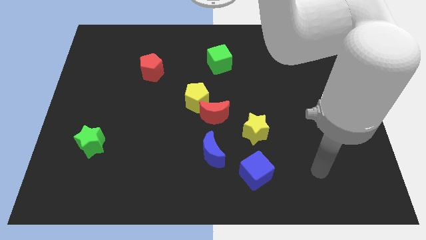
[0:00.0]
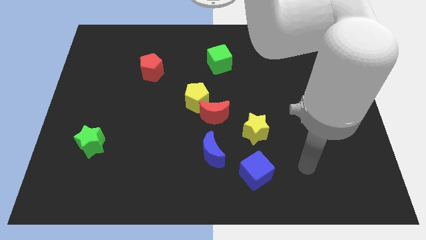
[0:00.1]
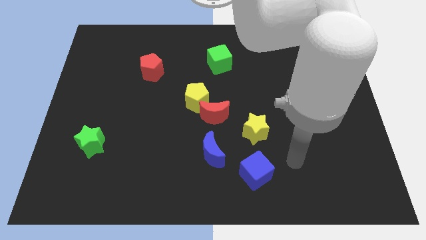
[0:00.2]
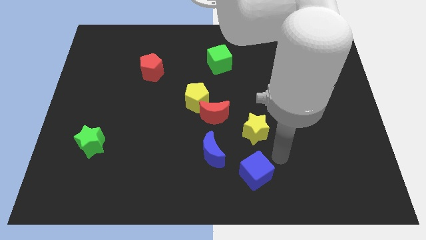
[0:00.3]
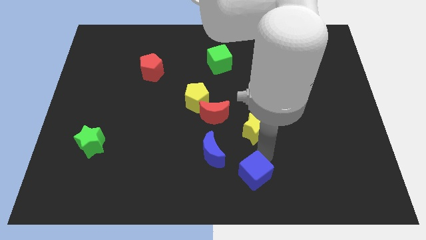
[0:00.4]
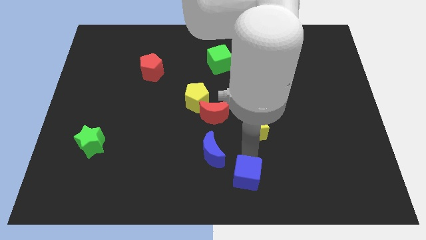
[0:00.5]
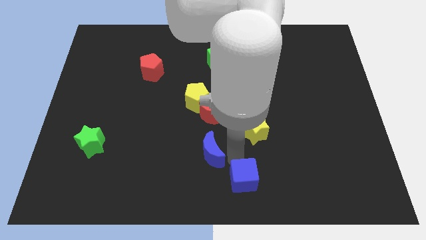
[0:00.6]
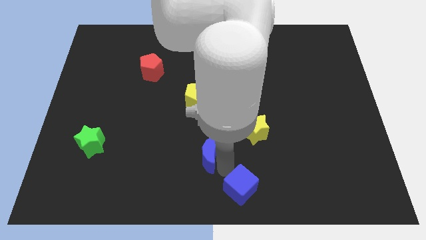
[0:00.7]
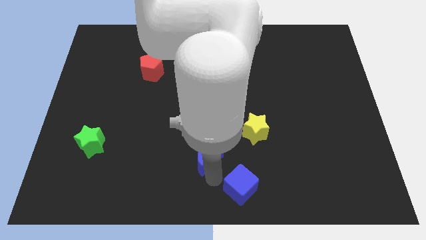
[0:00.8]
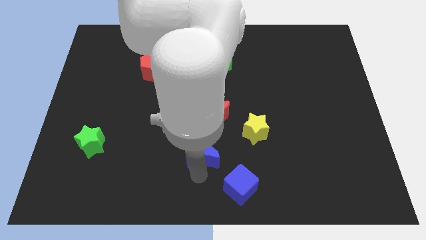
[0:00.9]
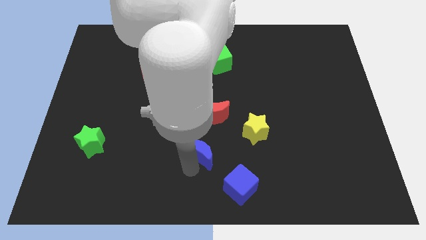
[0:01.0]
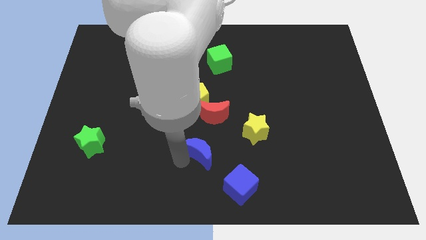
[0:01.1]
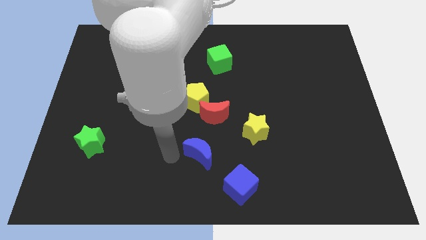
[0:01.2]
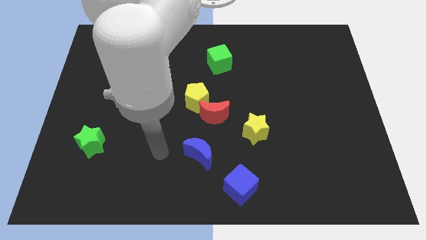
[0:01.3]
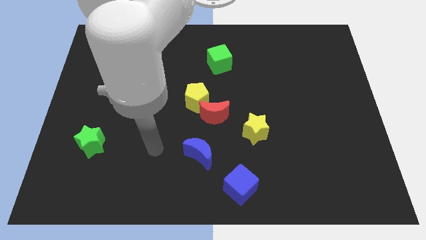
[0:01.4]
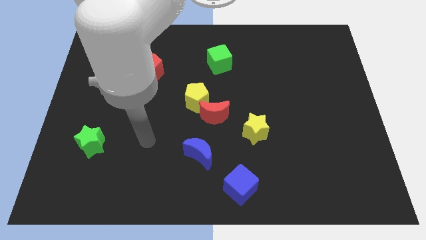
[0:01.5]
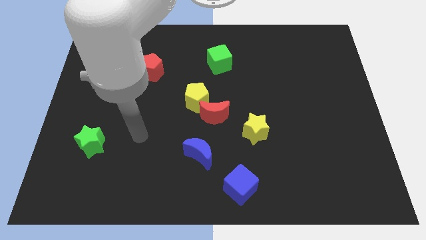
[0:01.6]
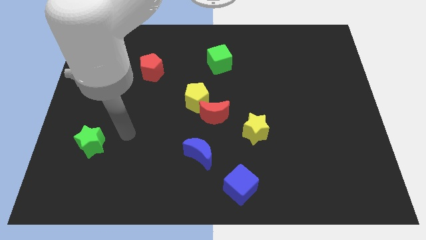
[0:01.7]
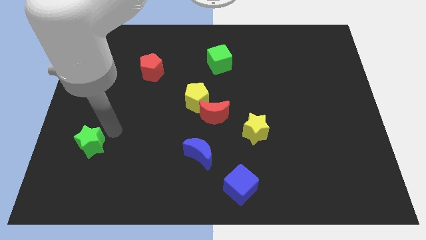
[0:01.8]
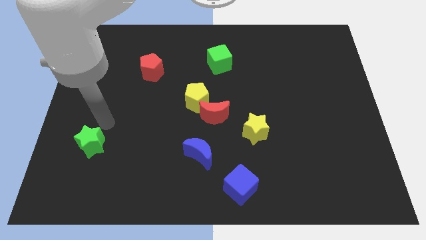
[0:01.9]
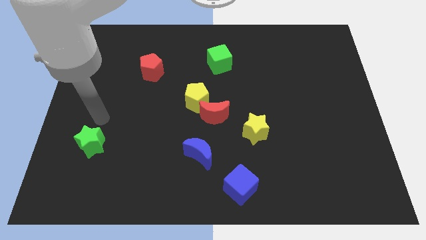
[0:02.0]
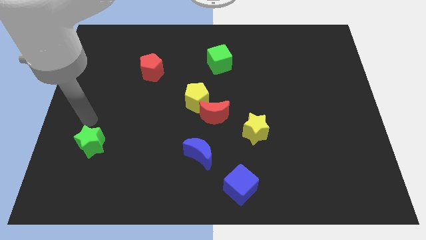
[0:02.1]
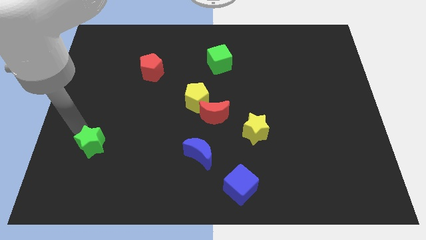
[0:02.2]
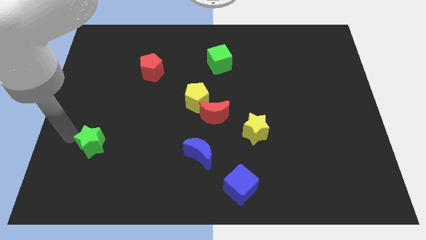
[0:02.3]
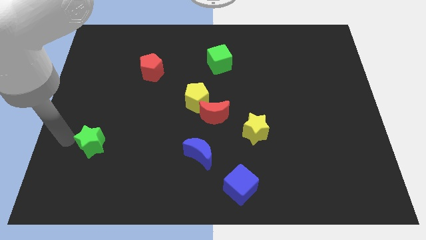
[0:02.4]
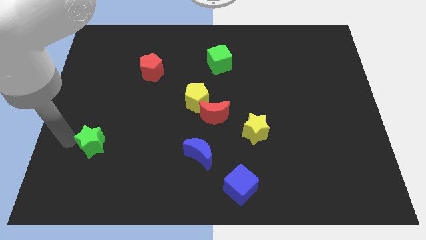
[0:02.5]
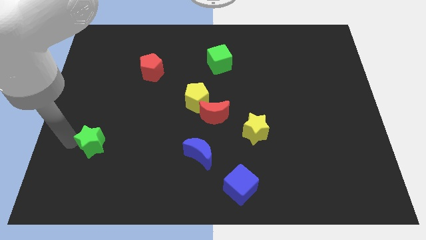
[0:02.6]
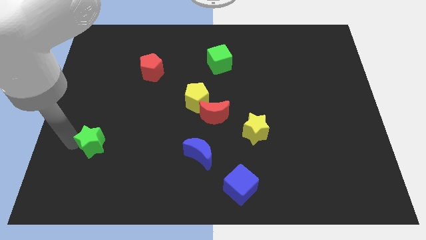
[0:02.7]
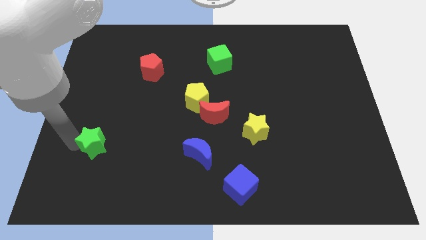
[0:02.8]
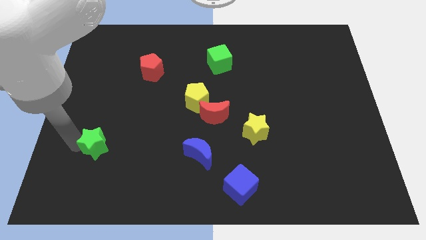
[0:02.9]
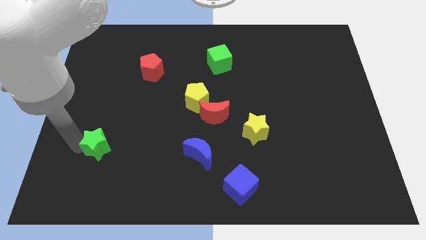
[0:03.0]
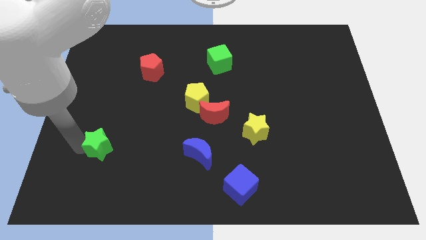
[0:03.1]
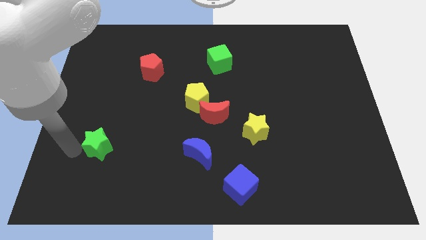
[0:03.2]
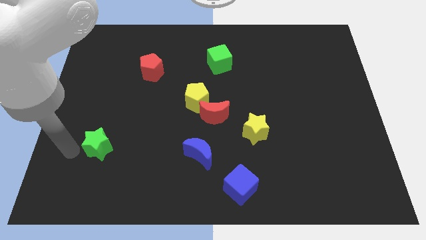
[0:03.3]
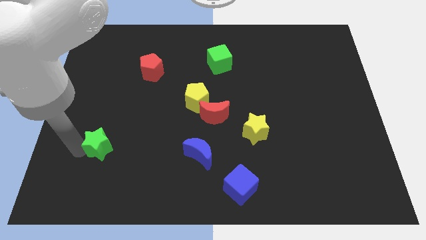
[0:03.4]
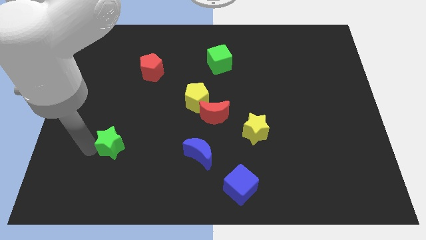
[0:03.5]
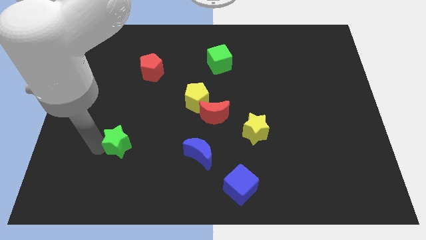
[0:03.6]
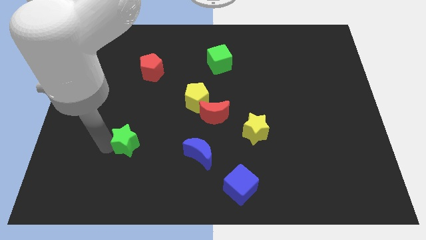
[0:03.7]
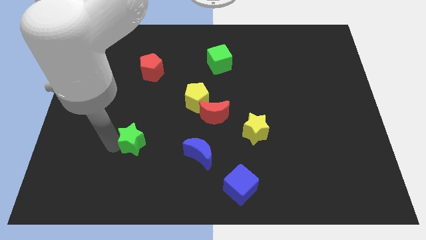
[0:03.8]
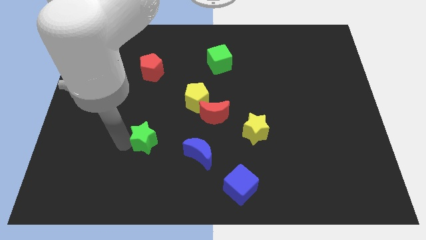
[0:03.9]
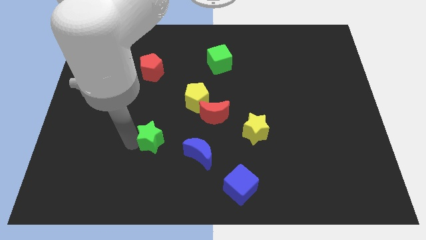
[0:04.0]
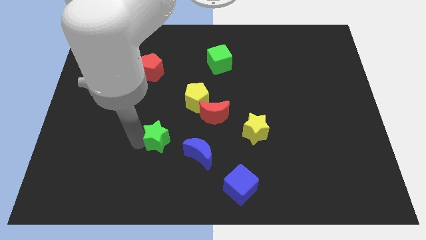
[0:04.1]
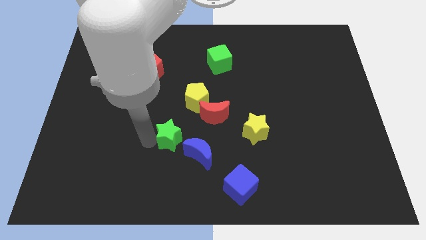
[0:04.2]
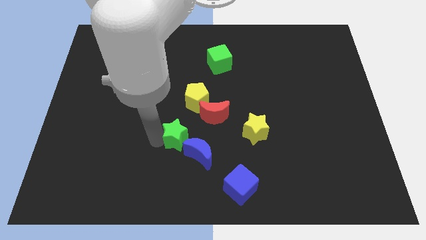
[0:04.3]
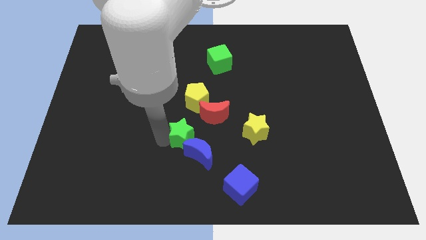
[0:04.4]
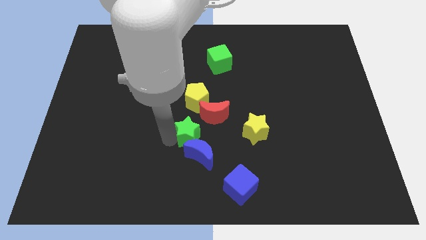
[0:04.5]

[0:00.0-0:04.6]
slide the green star to the right

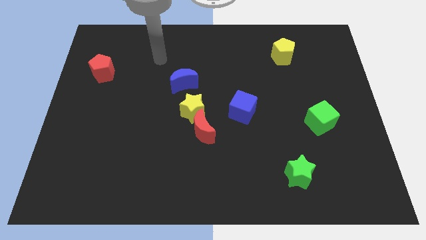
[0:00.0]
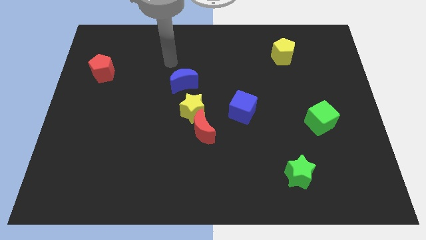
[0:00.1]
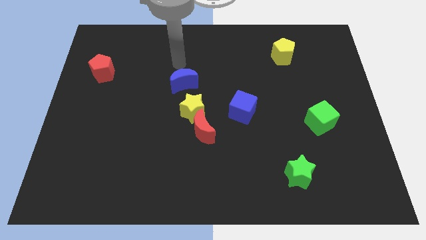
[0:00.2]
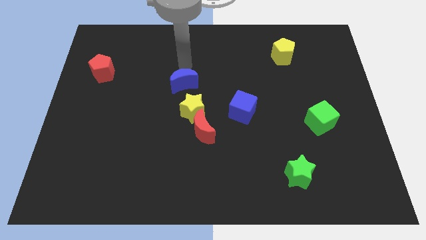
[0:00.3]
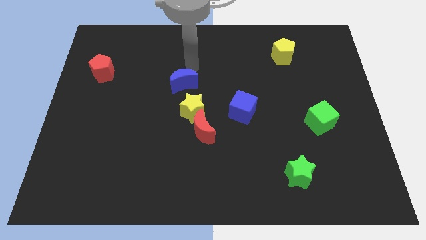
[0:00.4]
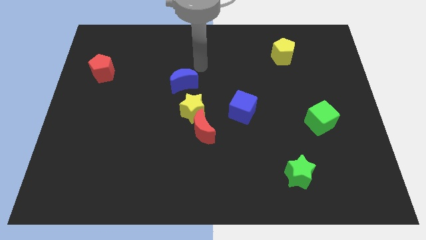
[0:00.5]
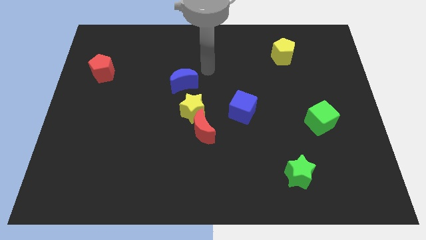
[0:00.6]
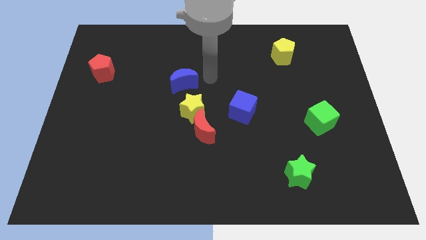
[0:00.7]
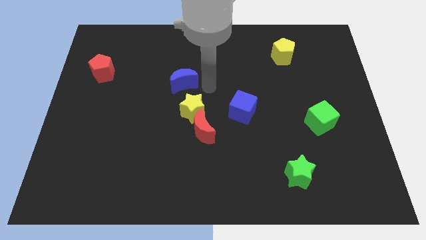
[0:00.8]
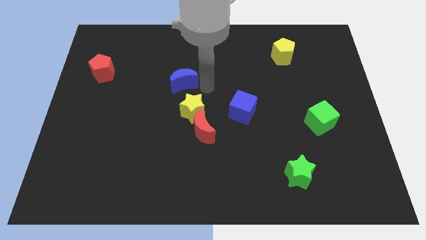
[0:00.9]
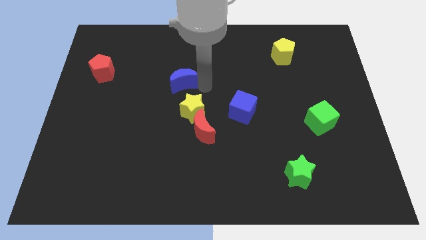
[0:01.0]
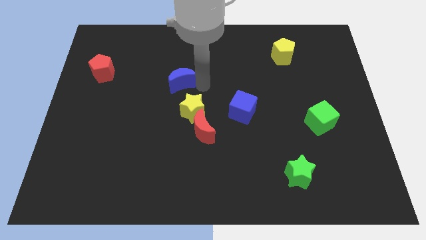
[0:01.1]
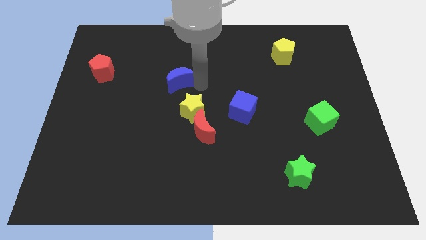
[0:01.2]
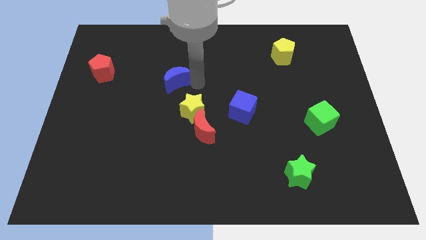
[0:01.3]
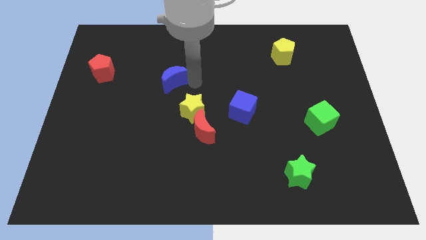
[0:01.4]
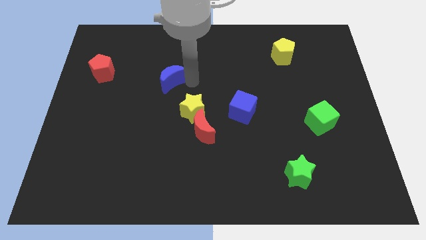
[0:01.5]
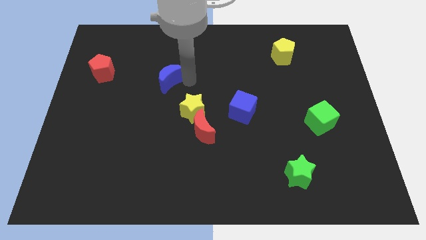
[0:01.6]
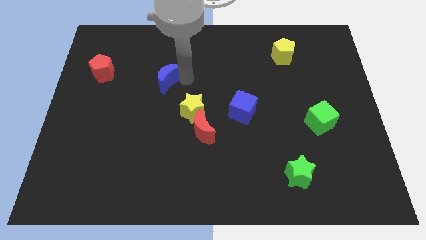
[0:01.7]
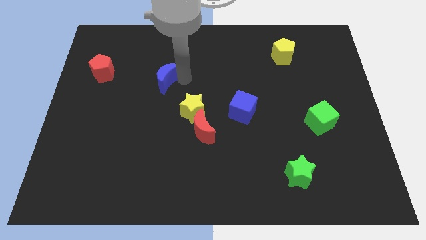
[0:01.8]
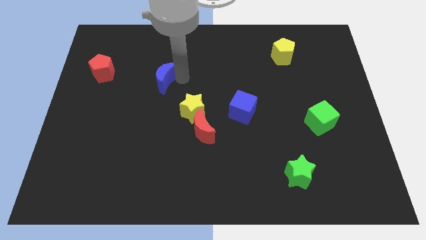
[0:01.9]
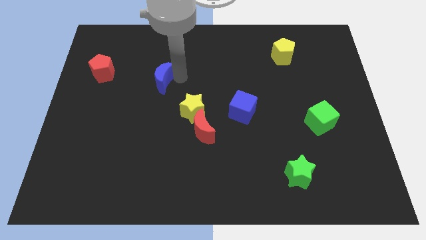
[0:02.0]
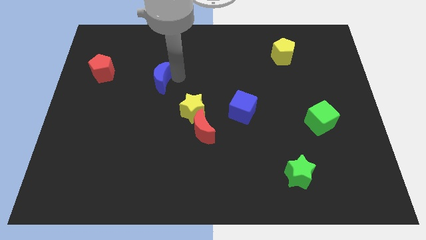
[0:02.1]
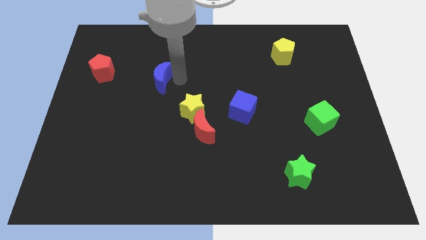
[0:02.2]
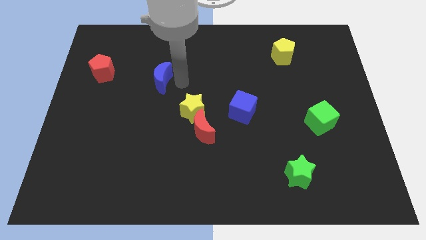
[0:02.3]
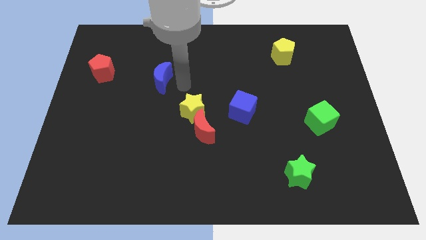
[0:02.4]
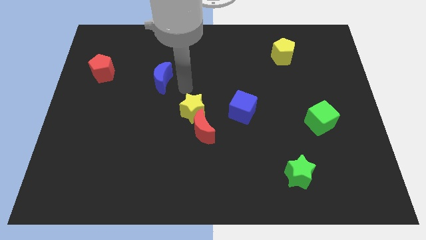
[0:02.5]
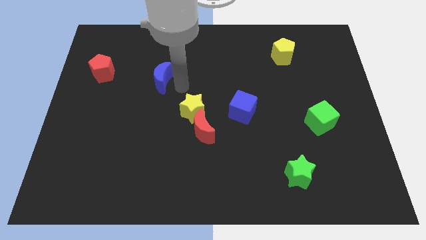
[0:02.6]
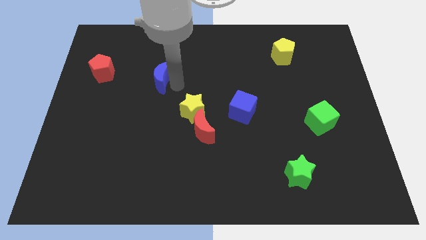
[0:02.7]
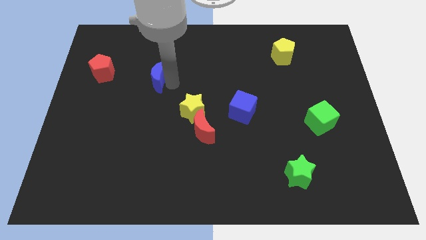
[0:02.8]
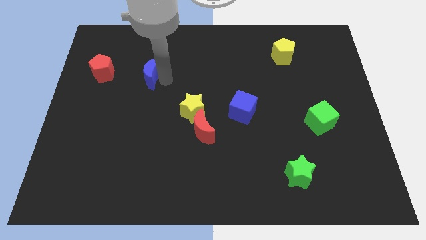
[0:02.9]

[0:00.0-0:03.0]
move the blue moon left a bit

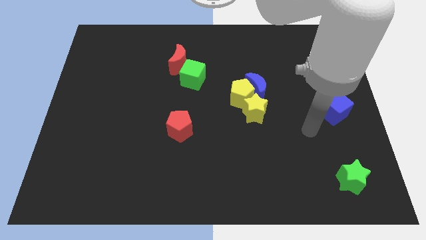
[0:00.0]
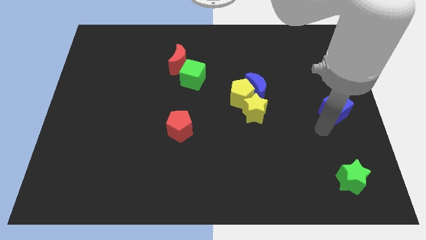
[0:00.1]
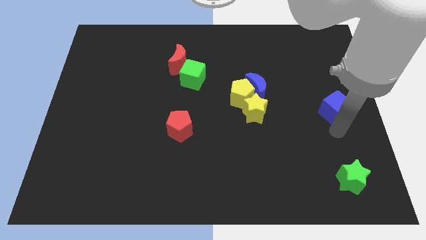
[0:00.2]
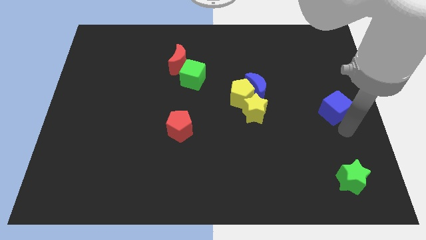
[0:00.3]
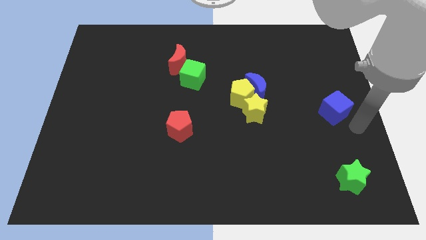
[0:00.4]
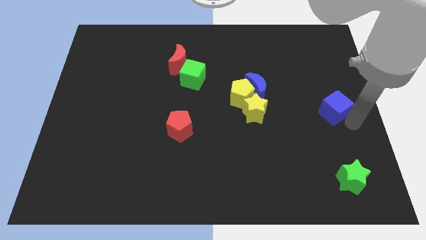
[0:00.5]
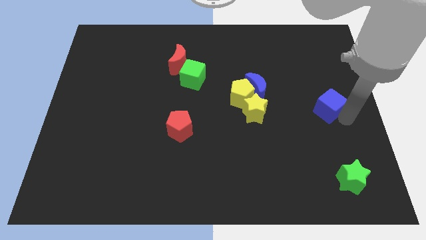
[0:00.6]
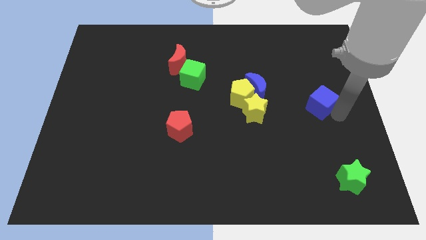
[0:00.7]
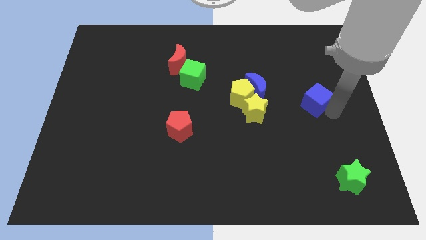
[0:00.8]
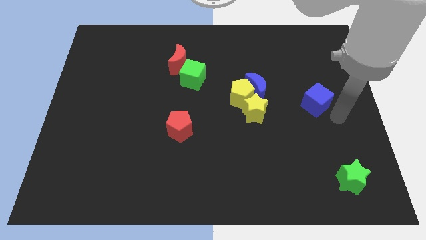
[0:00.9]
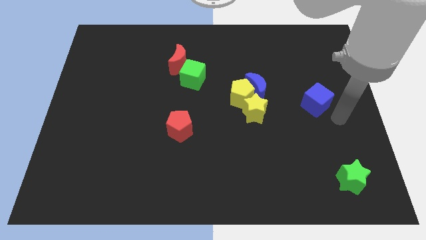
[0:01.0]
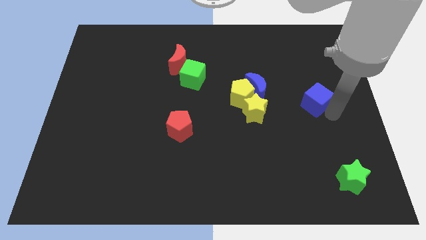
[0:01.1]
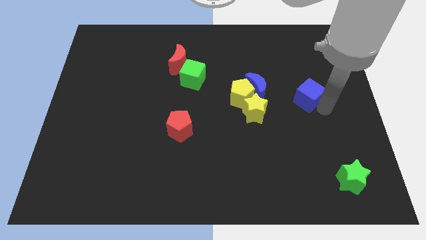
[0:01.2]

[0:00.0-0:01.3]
move the blue cube up and to the left a bit
